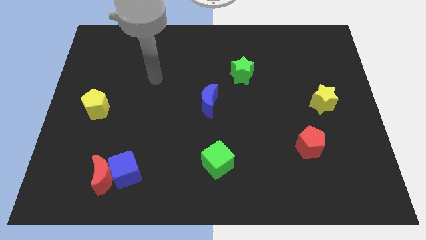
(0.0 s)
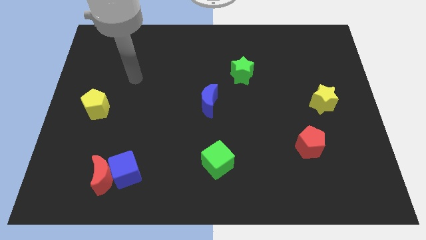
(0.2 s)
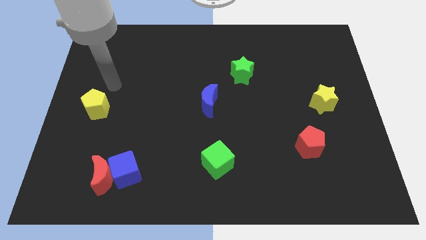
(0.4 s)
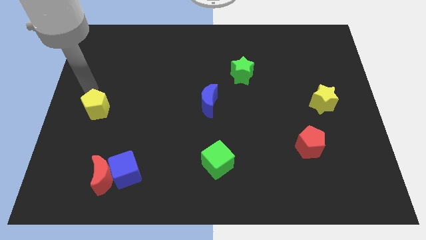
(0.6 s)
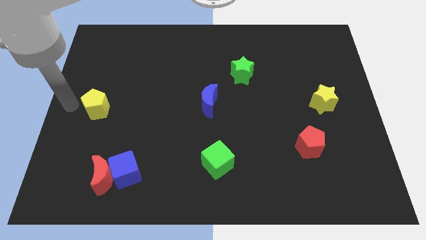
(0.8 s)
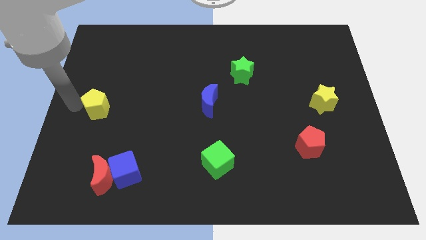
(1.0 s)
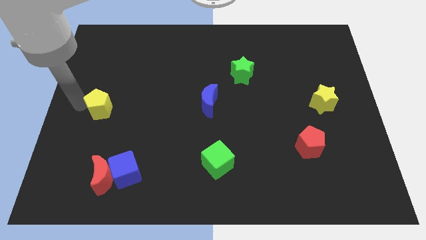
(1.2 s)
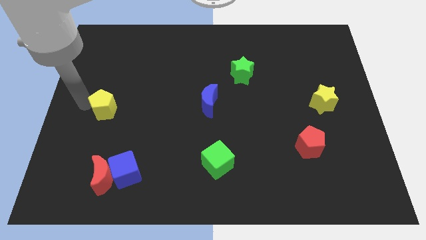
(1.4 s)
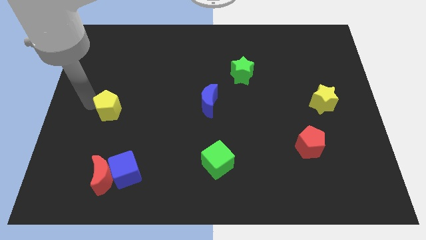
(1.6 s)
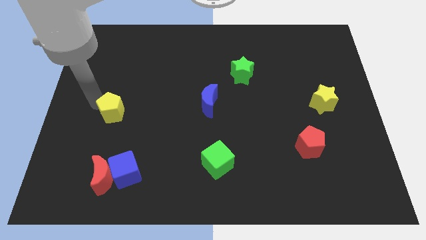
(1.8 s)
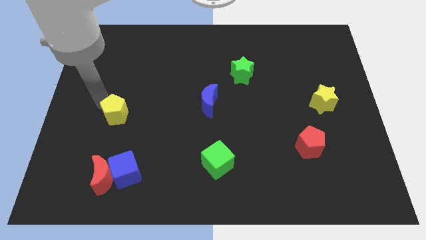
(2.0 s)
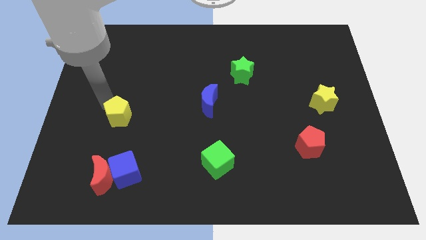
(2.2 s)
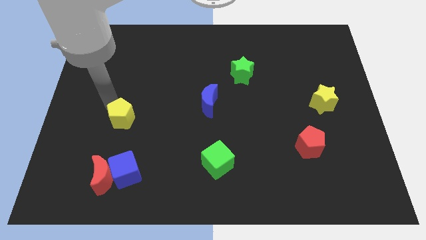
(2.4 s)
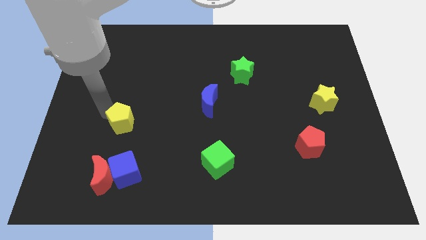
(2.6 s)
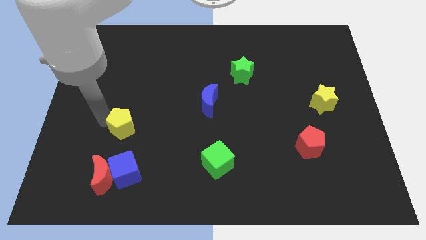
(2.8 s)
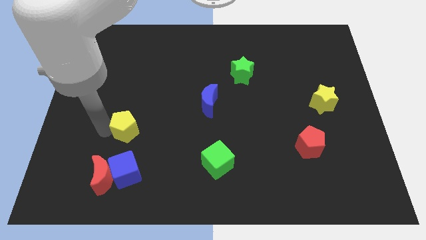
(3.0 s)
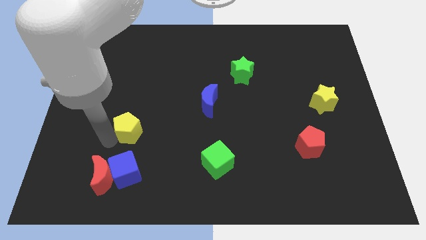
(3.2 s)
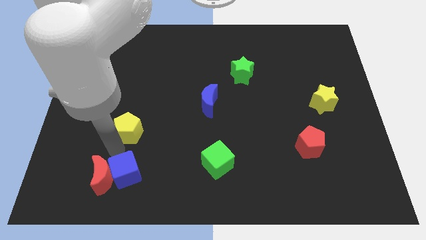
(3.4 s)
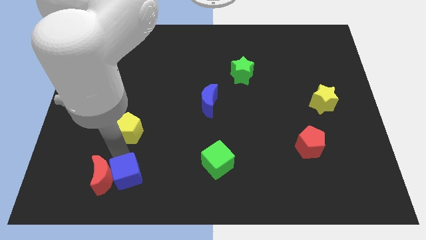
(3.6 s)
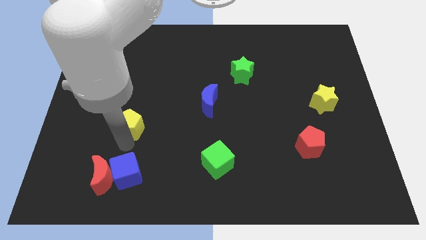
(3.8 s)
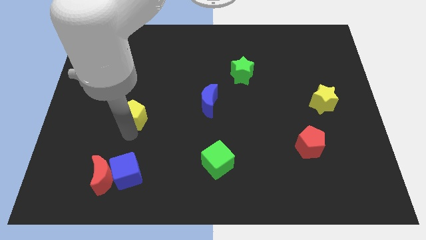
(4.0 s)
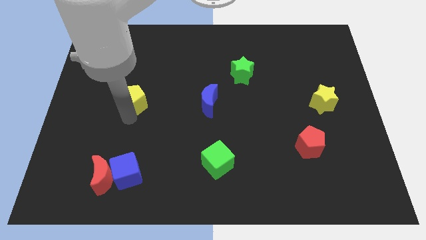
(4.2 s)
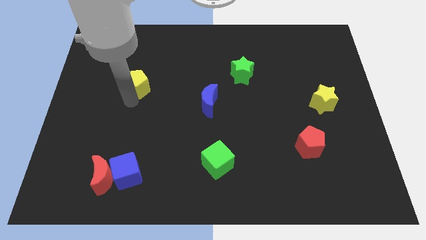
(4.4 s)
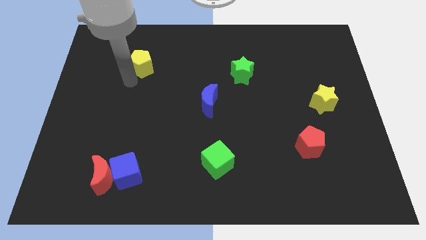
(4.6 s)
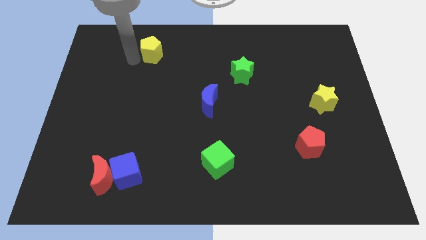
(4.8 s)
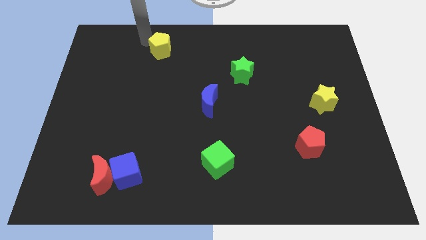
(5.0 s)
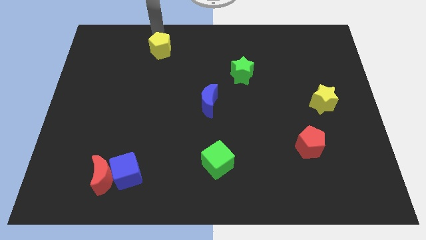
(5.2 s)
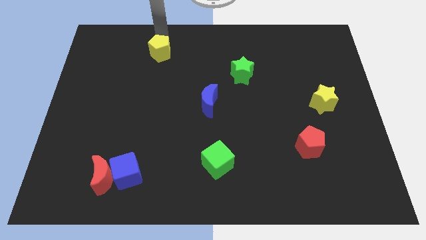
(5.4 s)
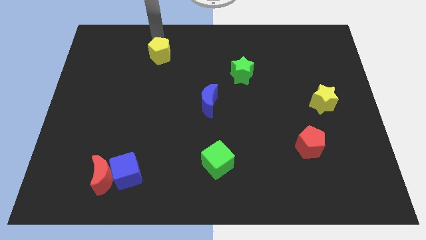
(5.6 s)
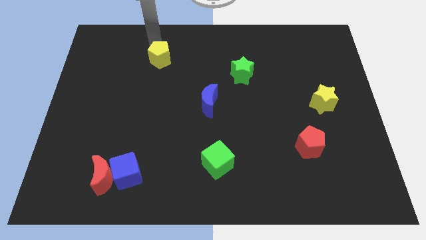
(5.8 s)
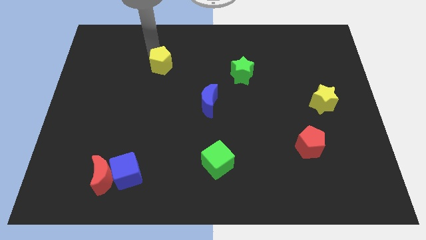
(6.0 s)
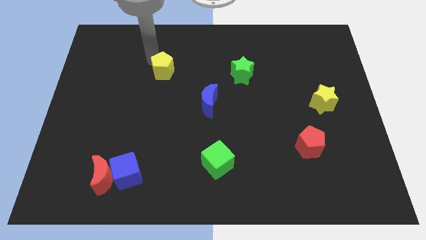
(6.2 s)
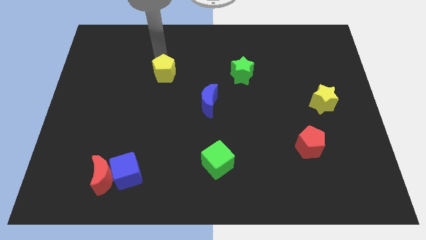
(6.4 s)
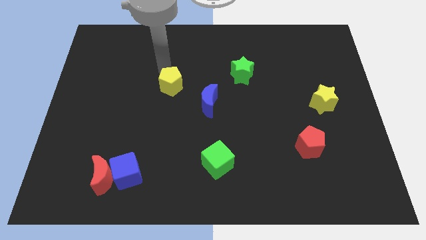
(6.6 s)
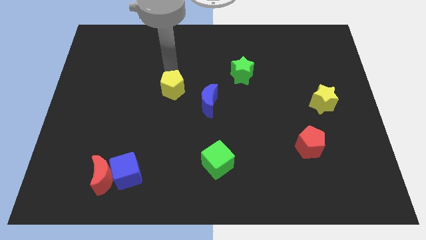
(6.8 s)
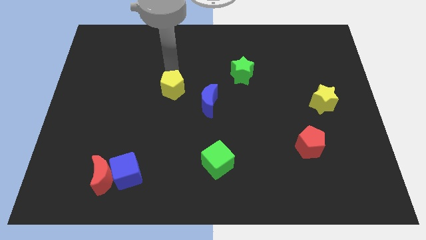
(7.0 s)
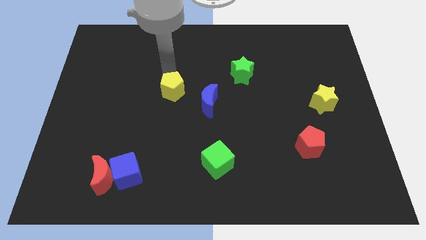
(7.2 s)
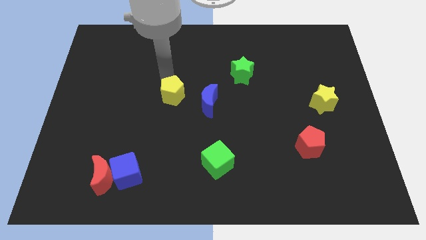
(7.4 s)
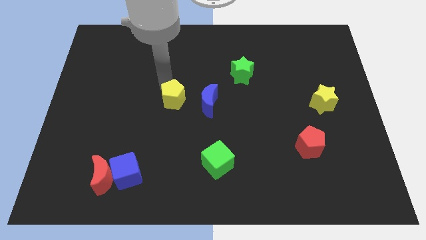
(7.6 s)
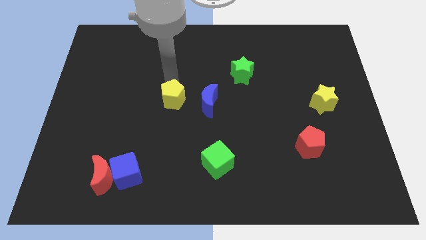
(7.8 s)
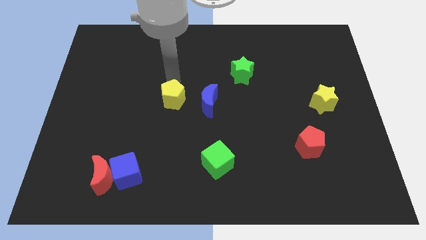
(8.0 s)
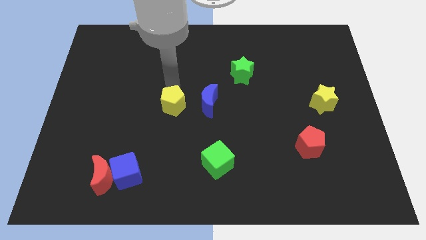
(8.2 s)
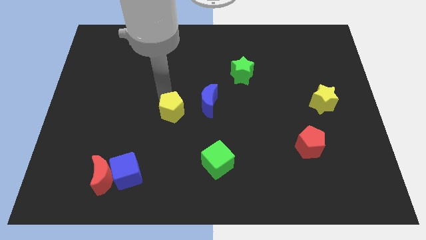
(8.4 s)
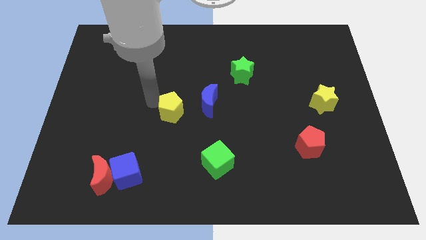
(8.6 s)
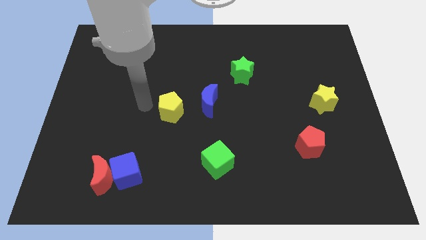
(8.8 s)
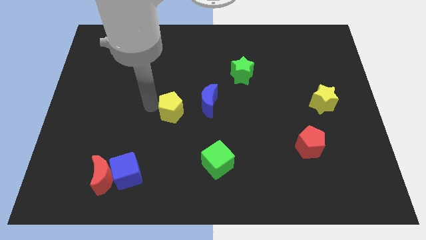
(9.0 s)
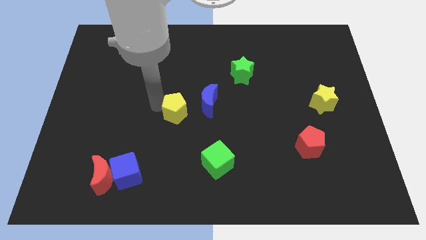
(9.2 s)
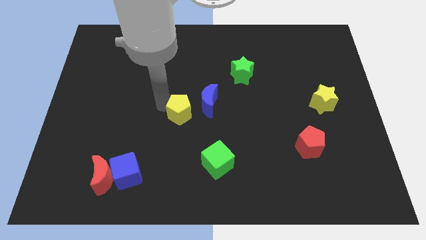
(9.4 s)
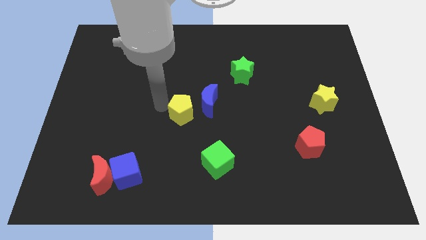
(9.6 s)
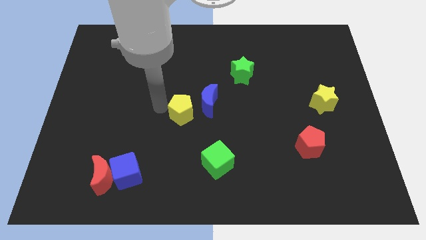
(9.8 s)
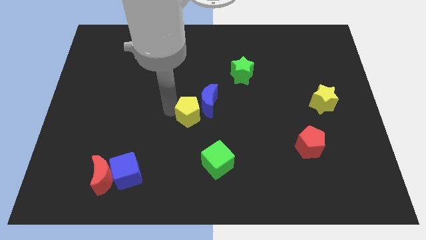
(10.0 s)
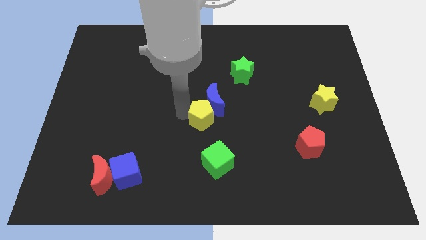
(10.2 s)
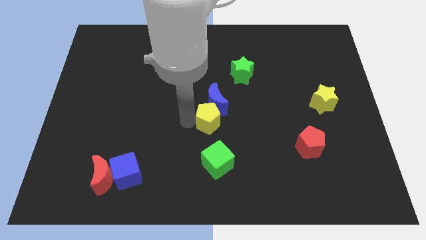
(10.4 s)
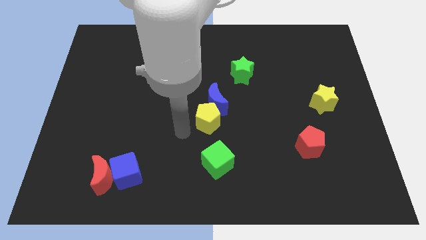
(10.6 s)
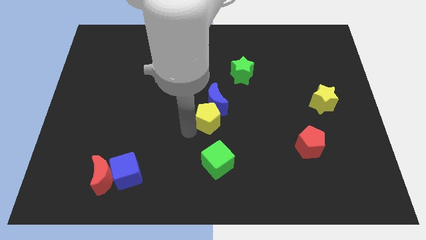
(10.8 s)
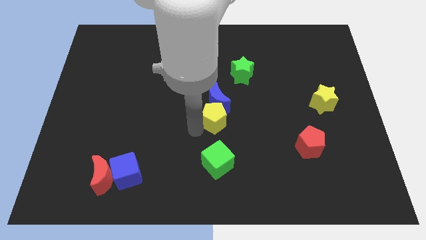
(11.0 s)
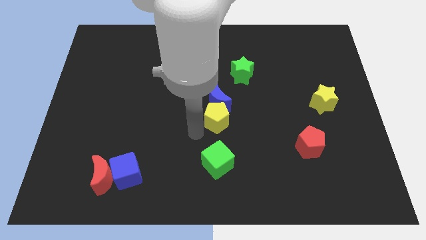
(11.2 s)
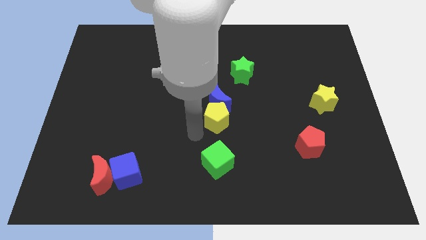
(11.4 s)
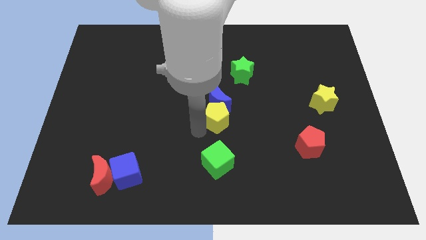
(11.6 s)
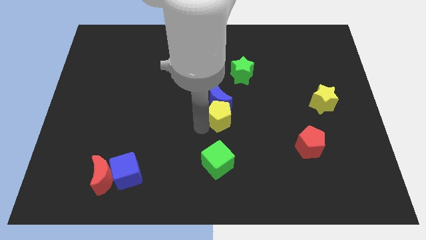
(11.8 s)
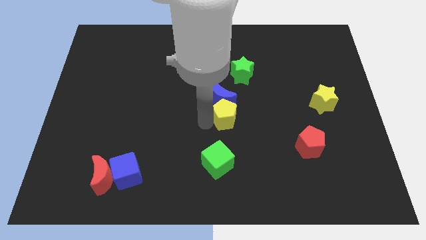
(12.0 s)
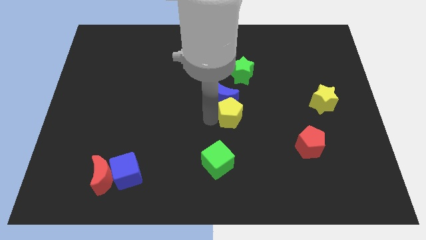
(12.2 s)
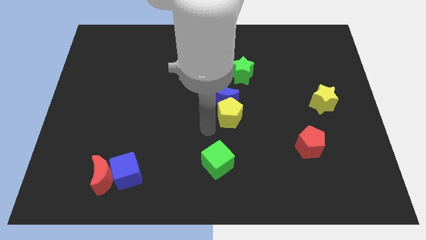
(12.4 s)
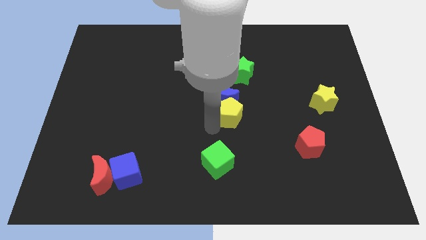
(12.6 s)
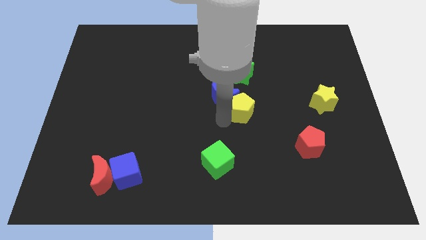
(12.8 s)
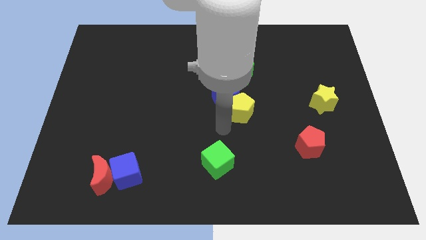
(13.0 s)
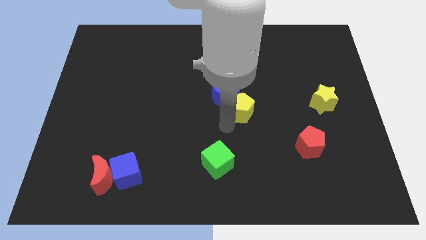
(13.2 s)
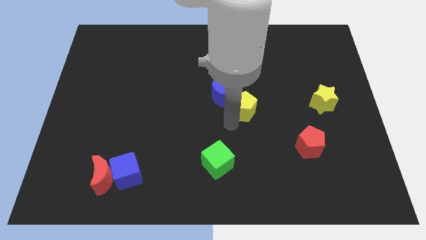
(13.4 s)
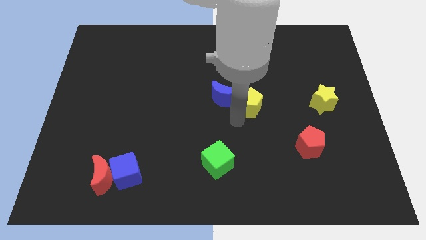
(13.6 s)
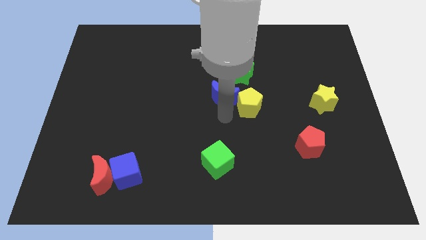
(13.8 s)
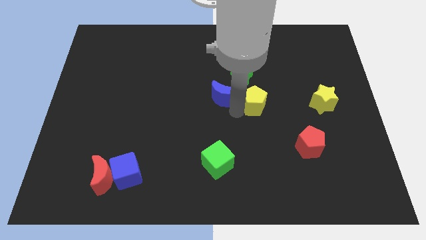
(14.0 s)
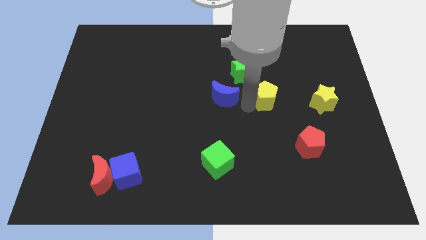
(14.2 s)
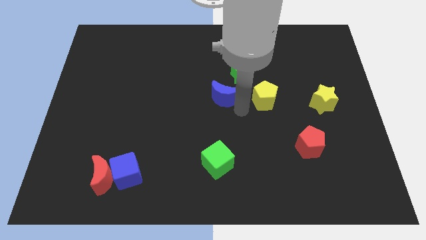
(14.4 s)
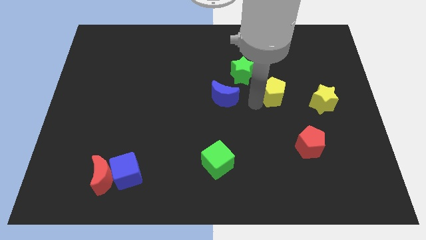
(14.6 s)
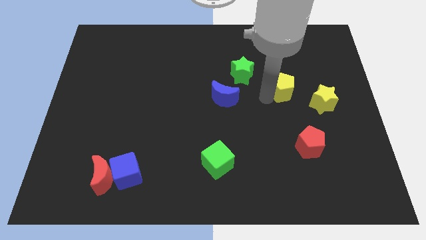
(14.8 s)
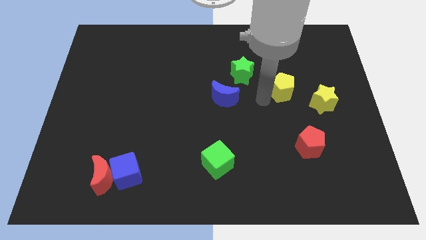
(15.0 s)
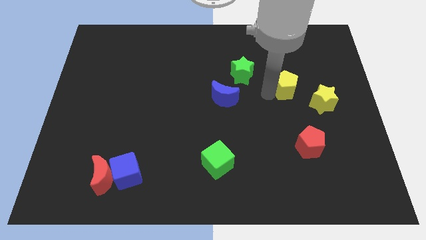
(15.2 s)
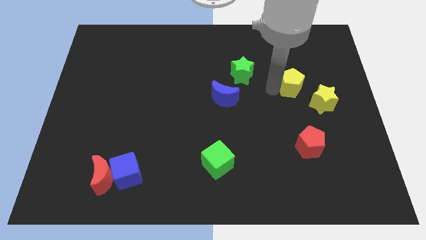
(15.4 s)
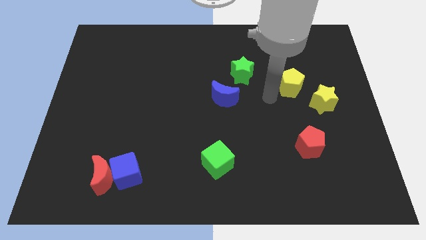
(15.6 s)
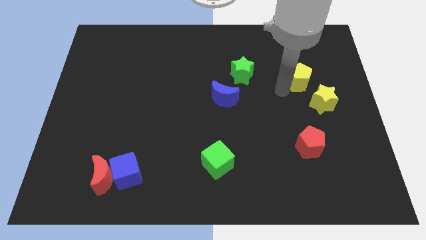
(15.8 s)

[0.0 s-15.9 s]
move the yellow pentagon to the top of the yellow star
